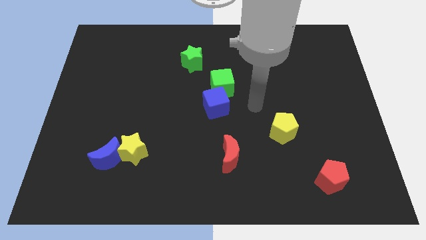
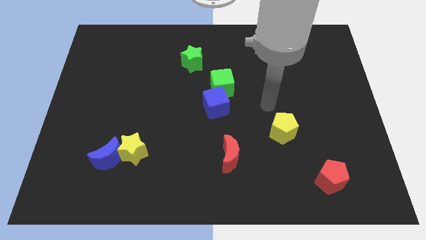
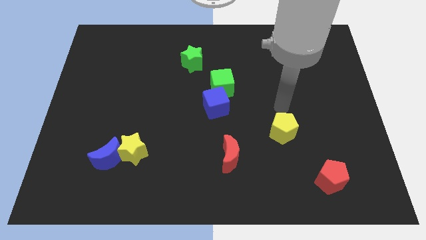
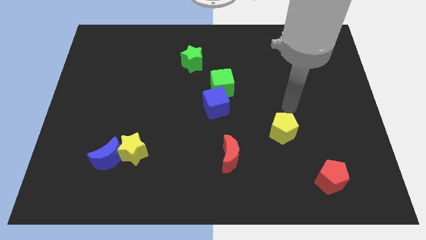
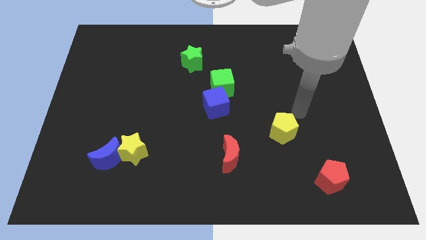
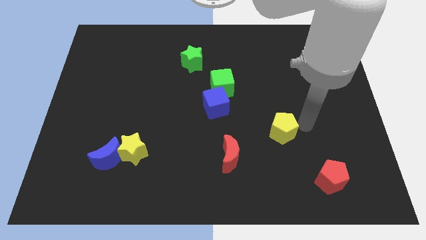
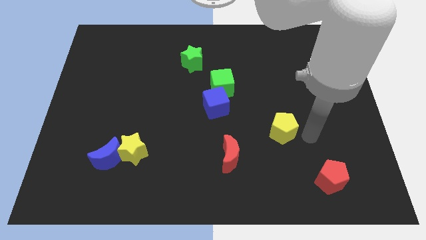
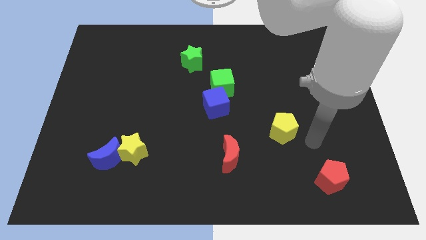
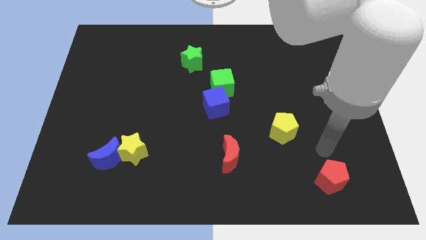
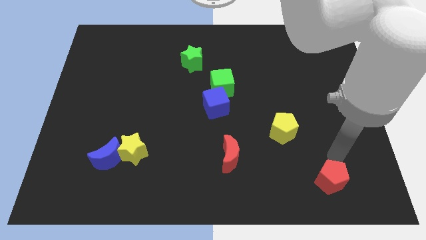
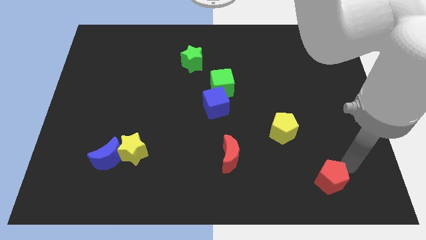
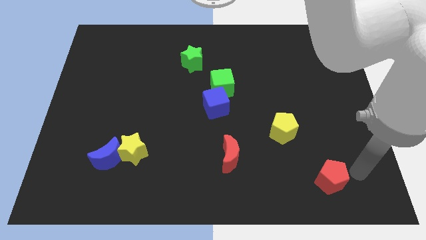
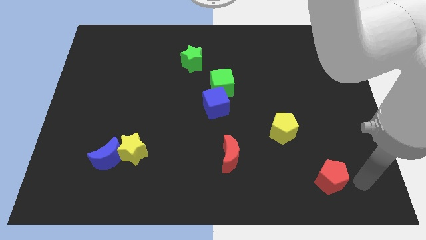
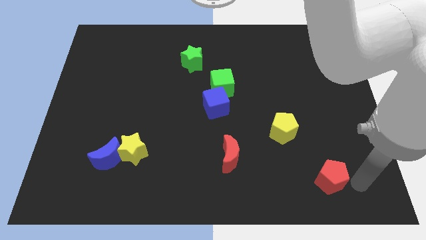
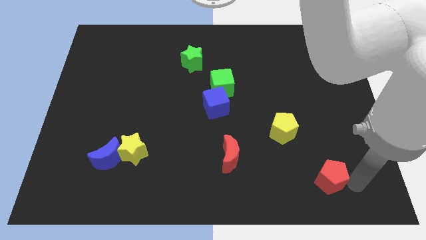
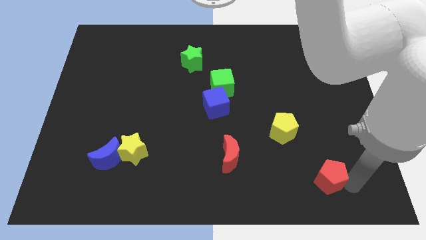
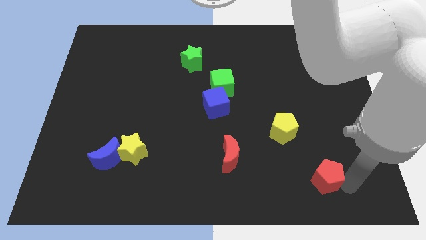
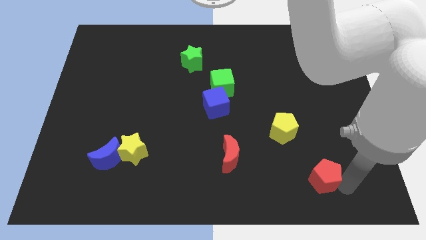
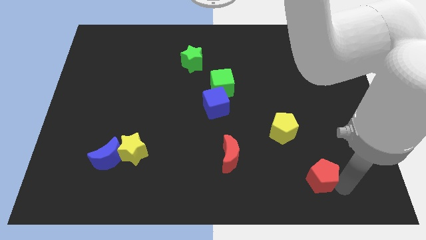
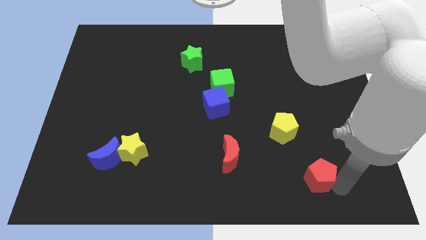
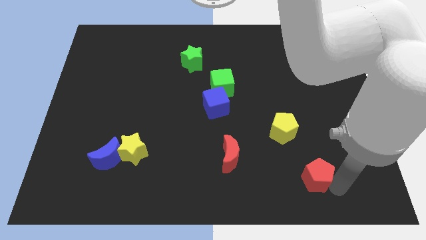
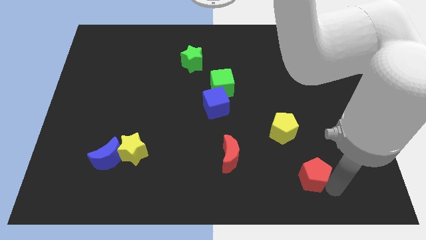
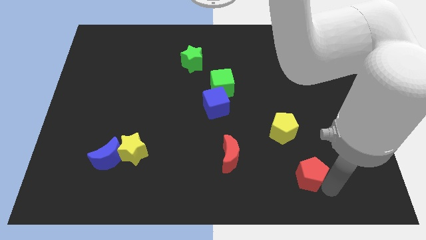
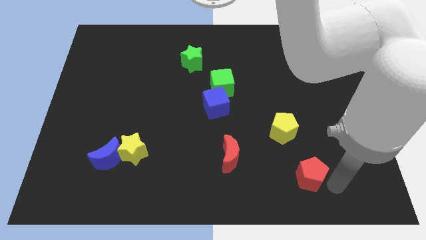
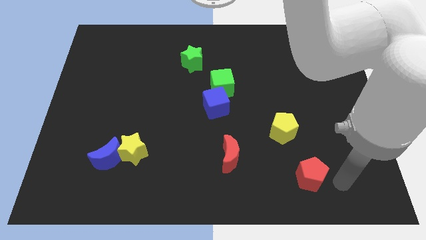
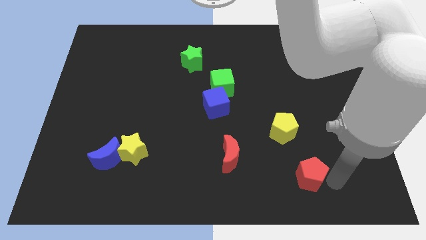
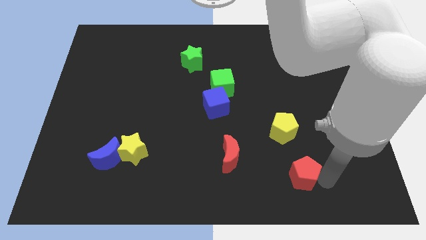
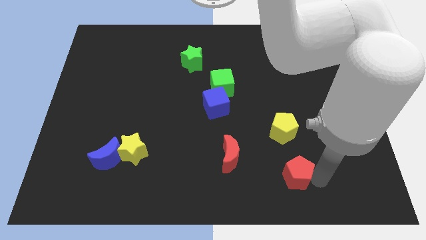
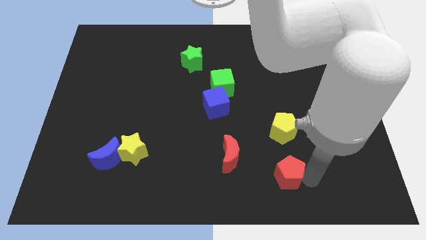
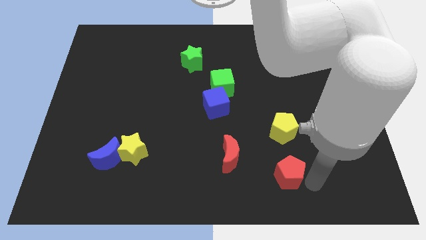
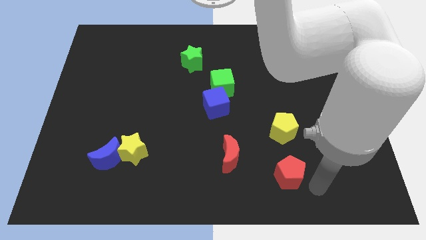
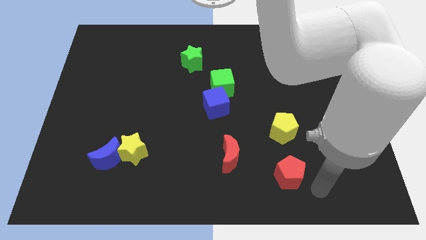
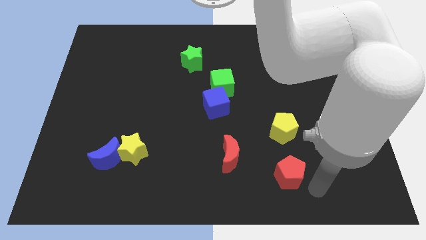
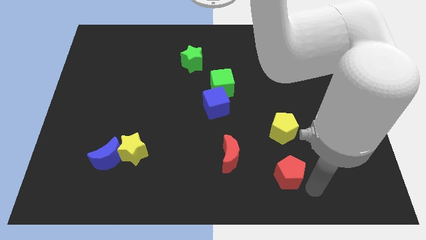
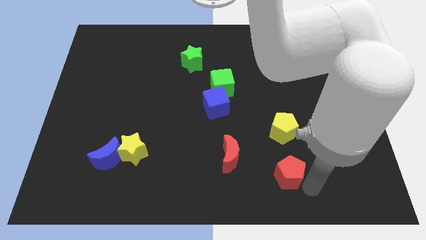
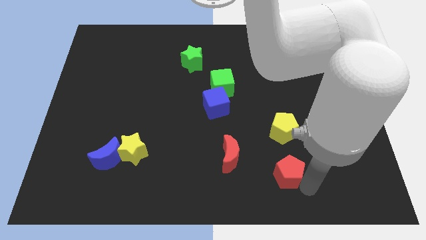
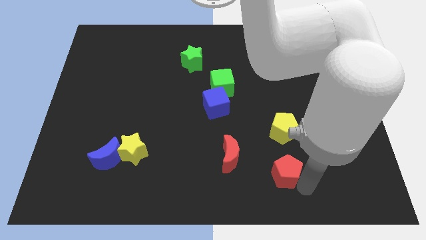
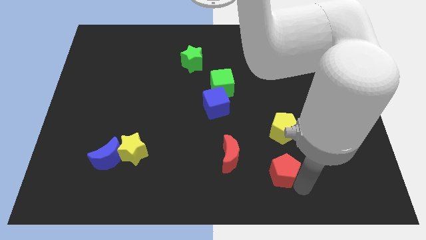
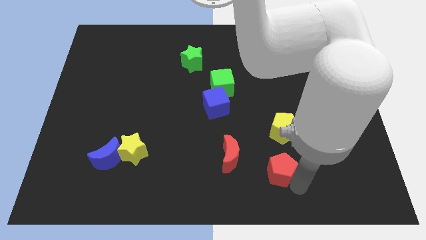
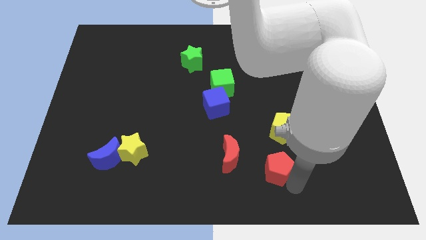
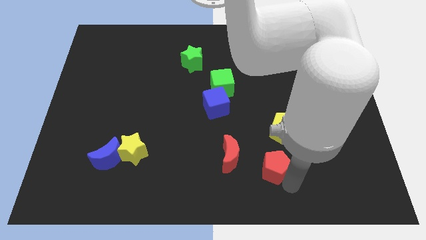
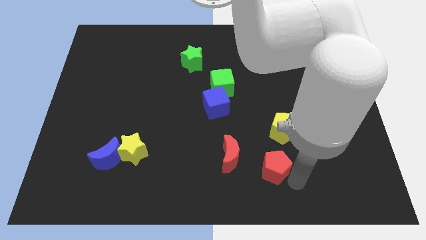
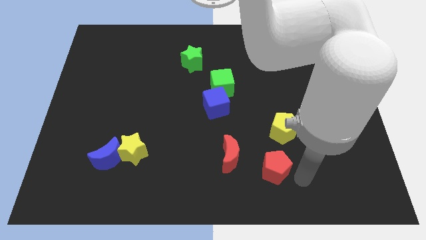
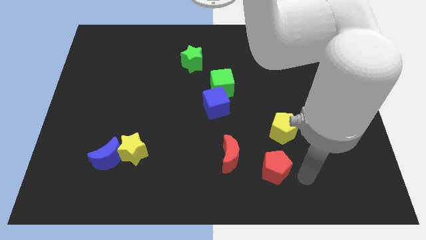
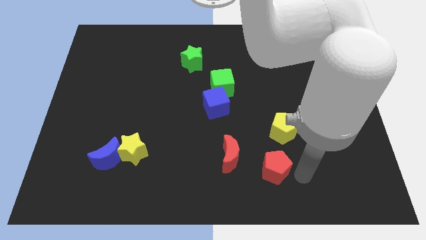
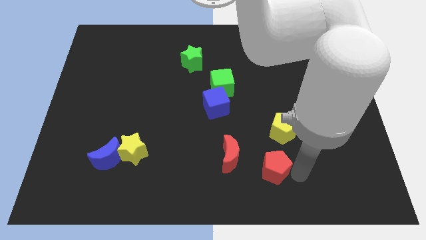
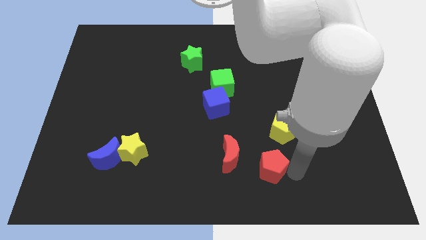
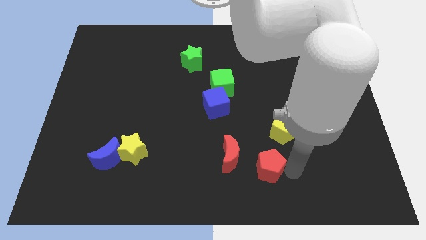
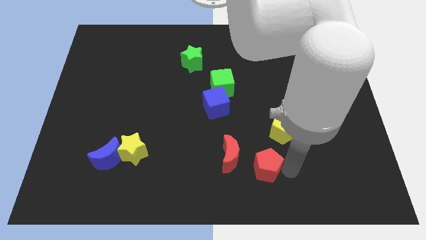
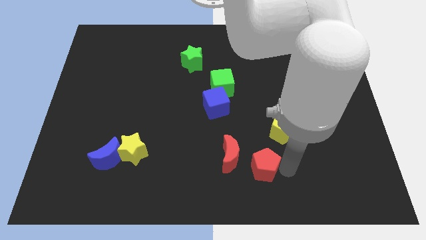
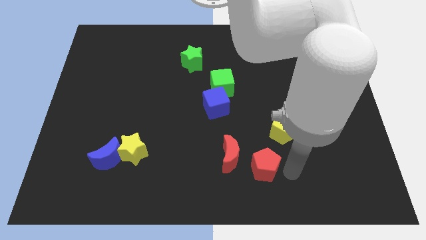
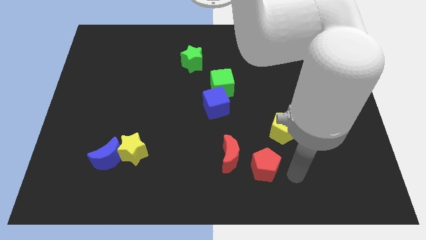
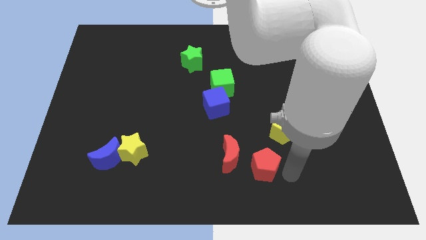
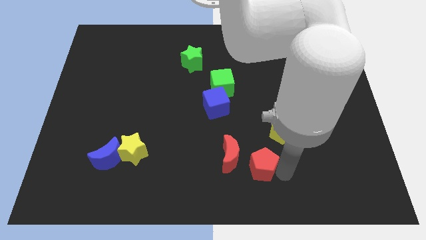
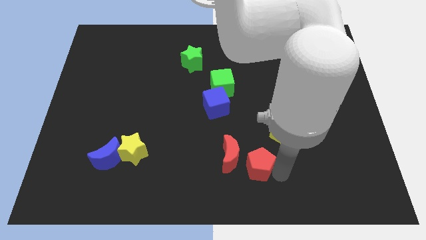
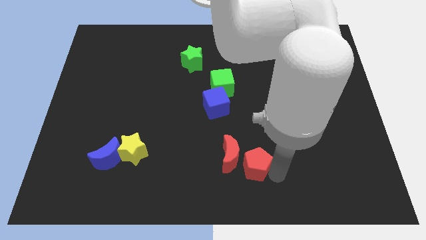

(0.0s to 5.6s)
push the red pentagon towards the red moon

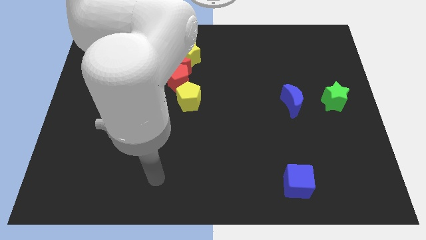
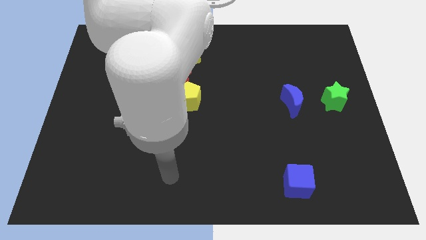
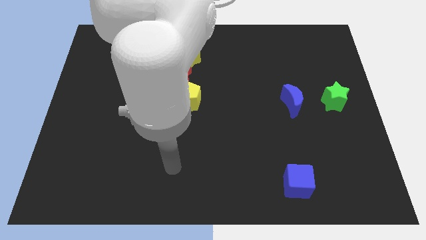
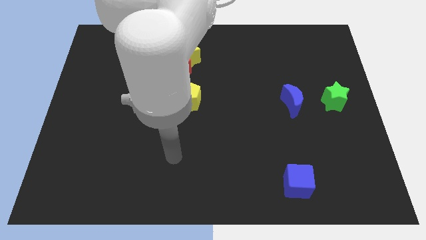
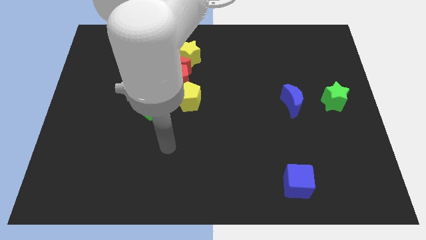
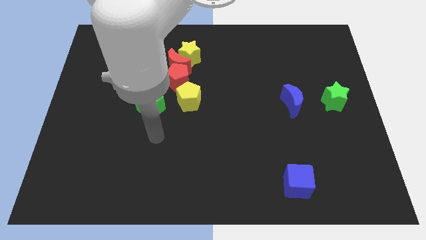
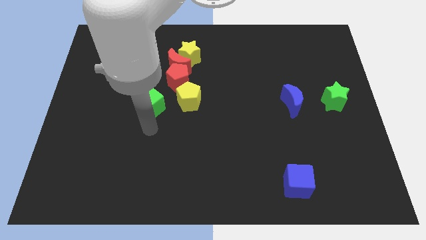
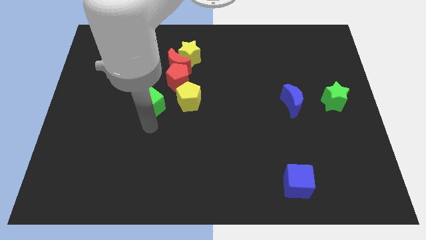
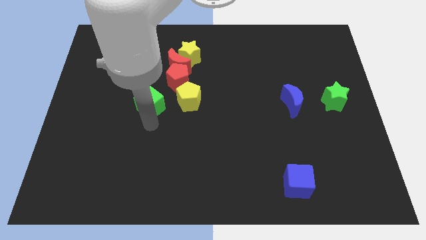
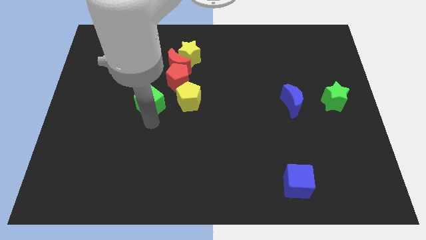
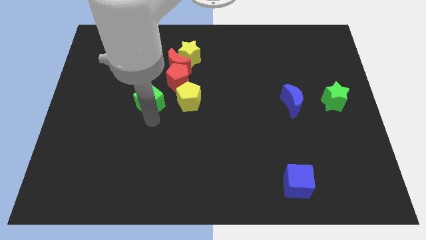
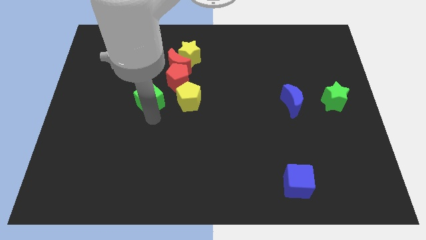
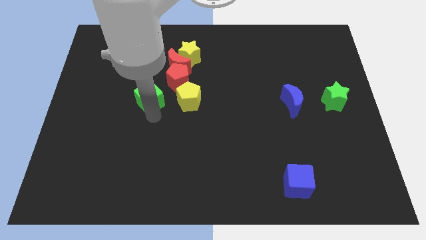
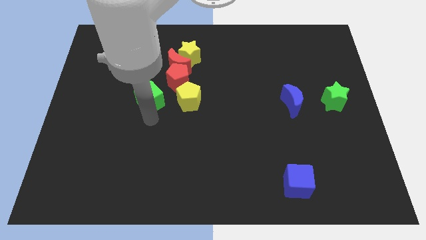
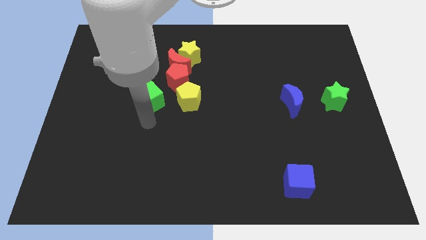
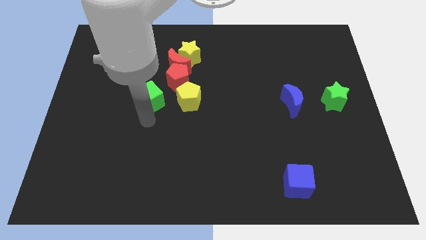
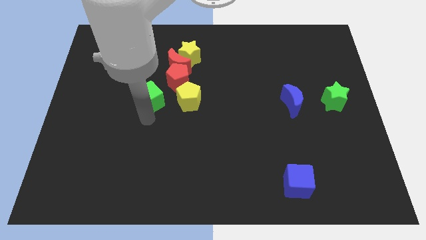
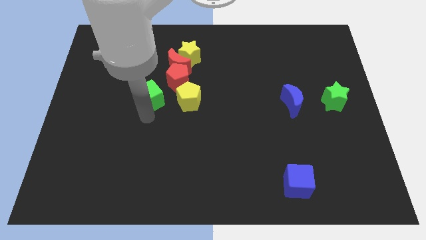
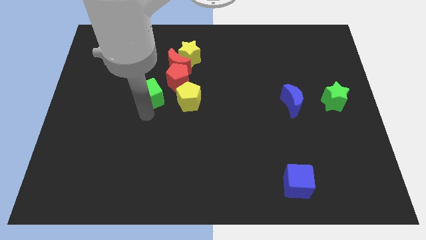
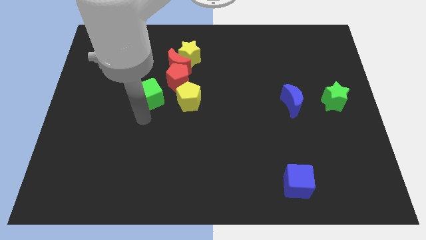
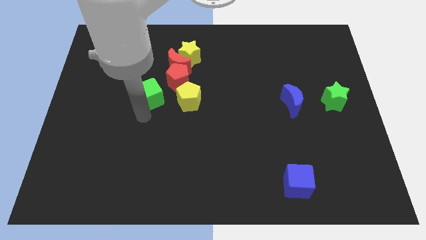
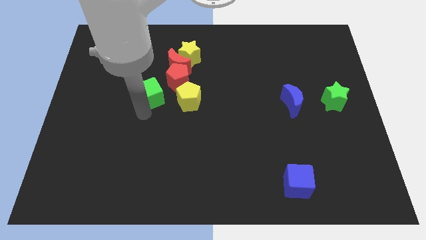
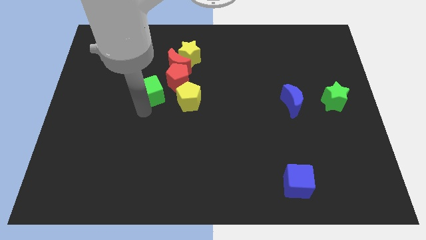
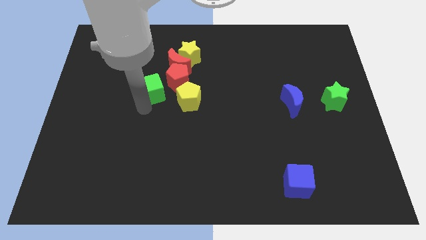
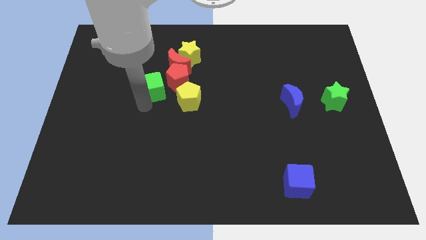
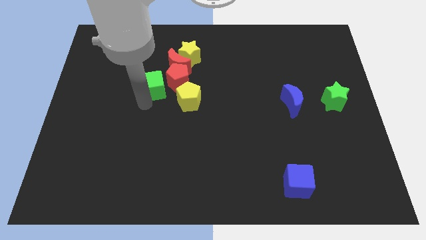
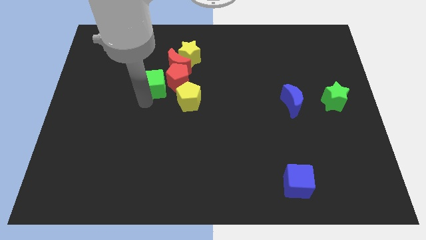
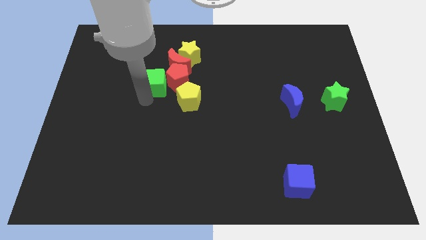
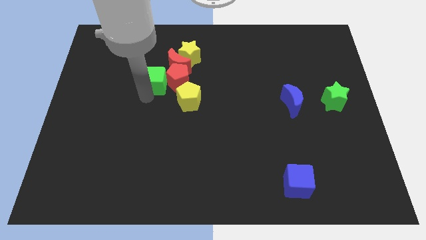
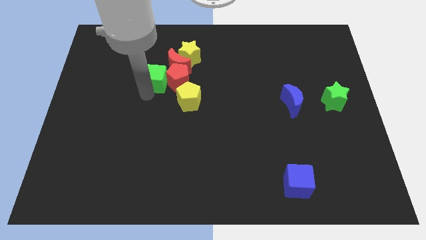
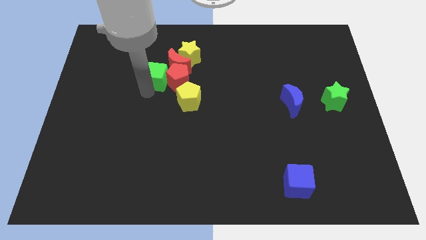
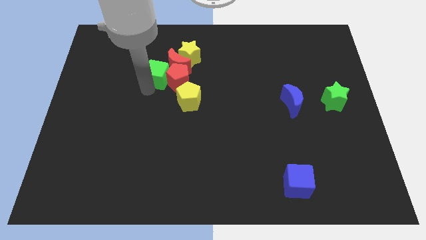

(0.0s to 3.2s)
move the green cube to the red moon
